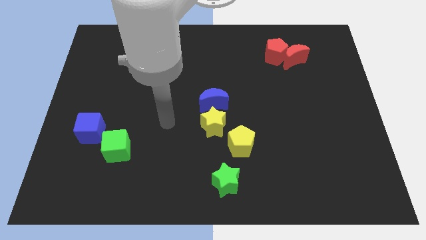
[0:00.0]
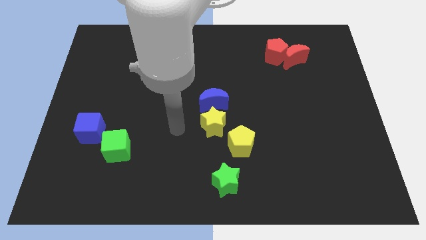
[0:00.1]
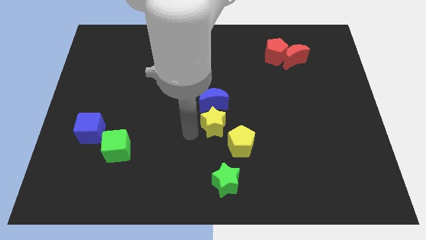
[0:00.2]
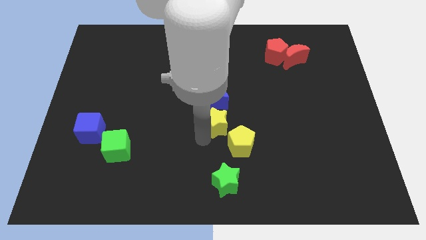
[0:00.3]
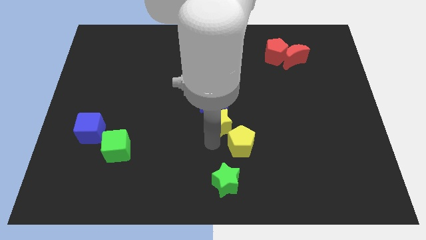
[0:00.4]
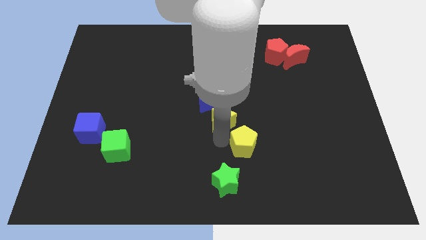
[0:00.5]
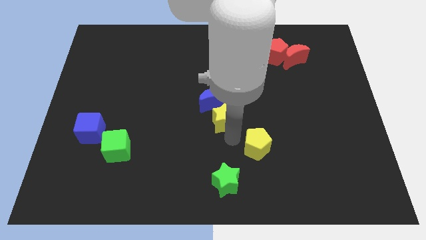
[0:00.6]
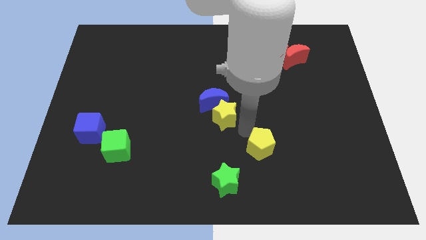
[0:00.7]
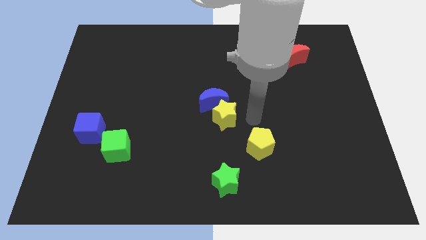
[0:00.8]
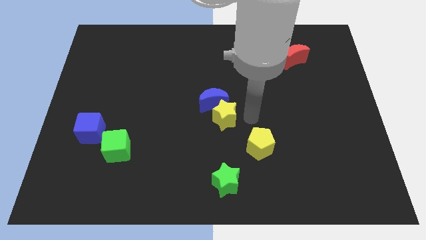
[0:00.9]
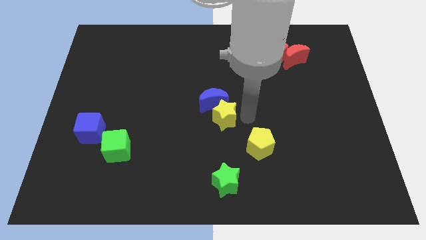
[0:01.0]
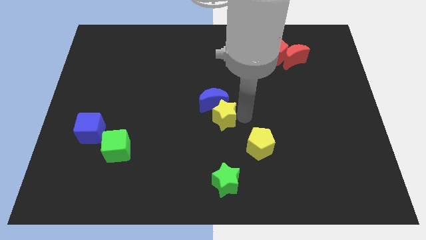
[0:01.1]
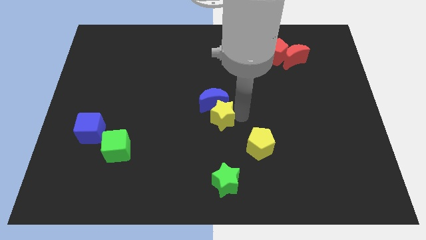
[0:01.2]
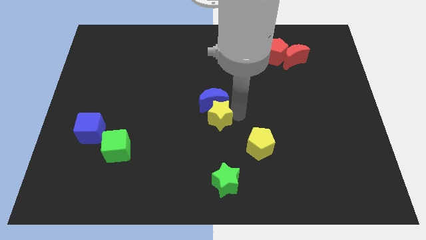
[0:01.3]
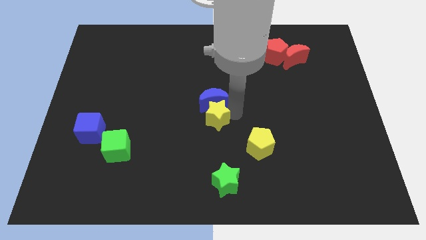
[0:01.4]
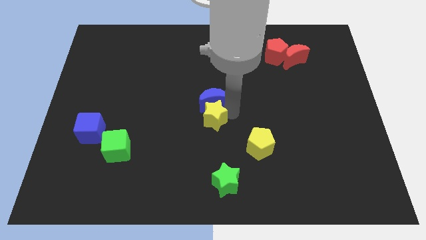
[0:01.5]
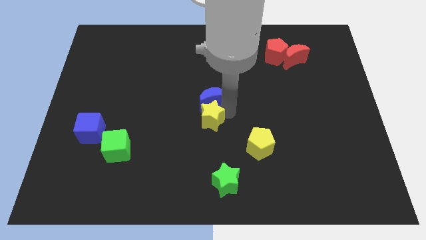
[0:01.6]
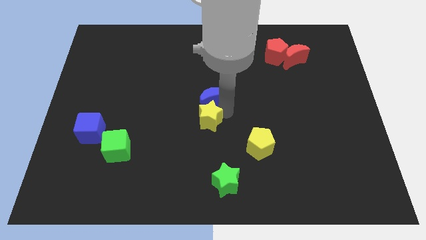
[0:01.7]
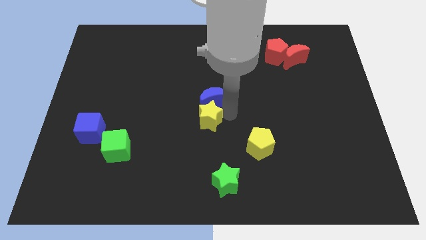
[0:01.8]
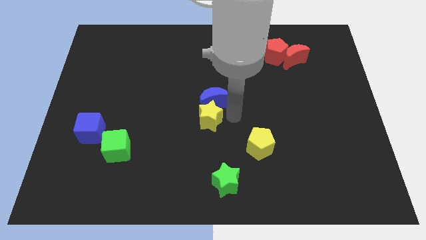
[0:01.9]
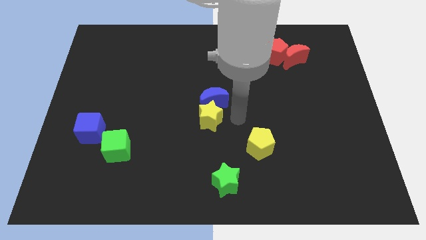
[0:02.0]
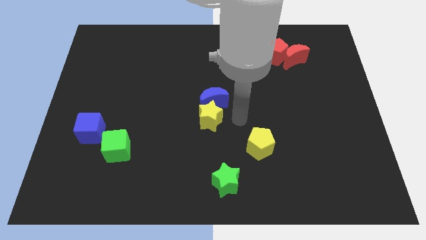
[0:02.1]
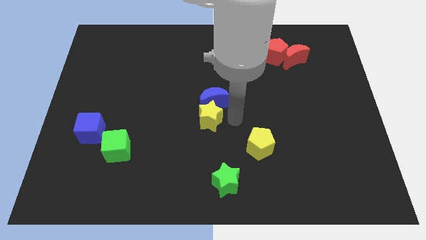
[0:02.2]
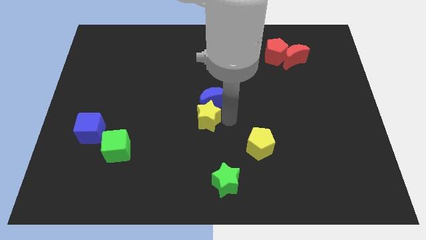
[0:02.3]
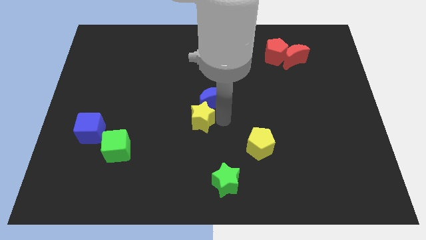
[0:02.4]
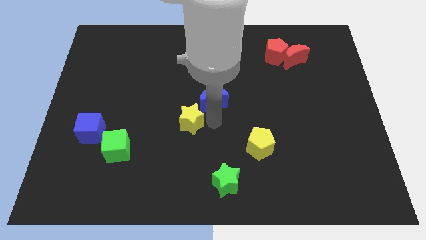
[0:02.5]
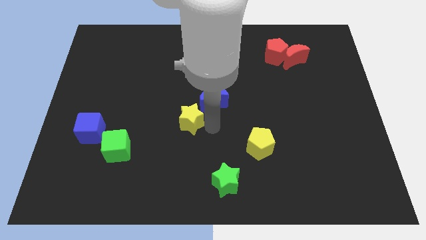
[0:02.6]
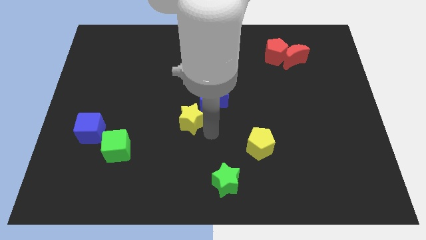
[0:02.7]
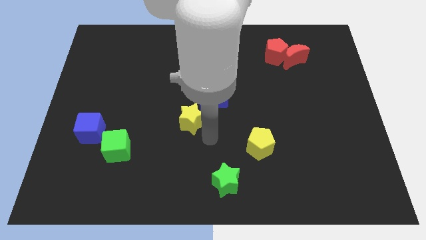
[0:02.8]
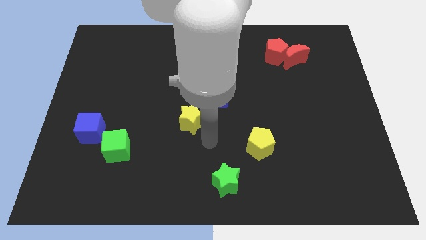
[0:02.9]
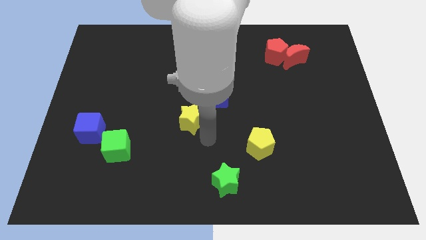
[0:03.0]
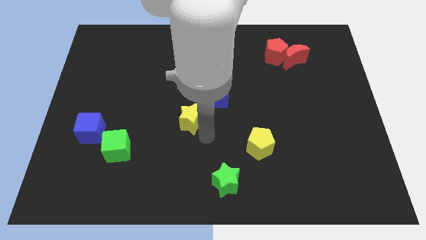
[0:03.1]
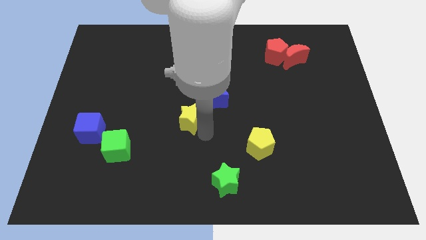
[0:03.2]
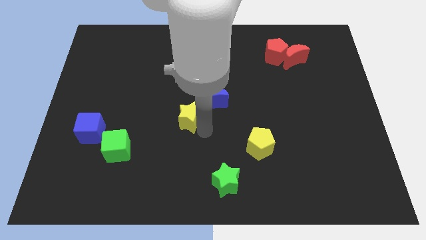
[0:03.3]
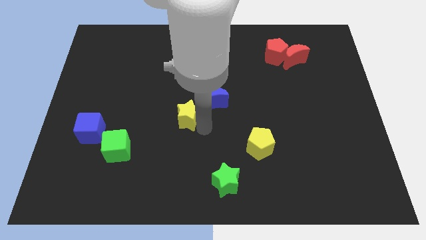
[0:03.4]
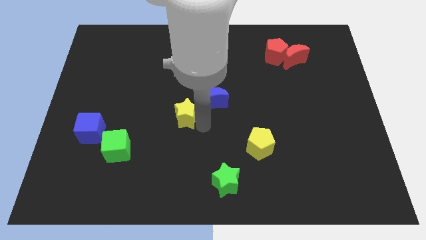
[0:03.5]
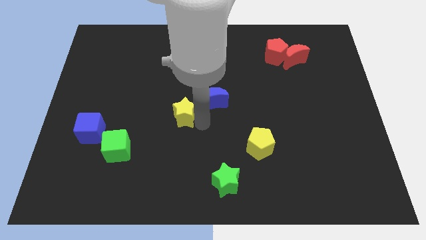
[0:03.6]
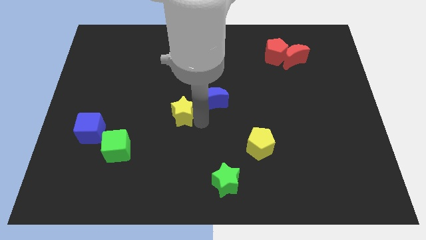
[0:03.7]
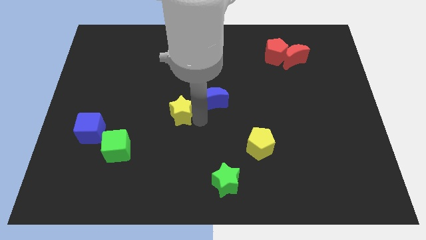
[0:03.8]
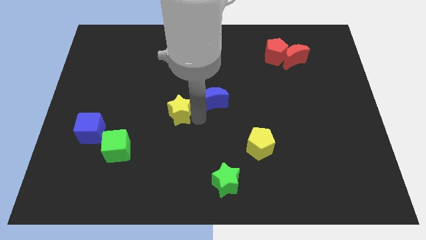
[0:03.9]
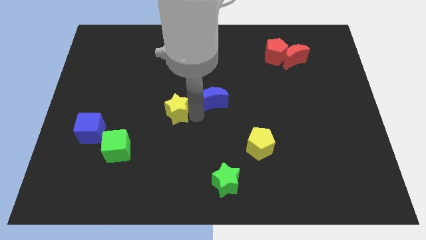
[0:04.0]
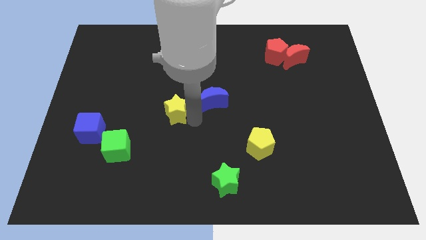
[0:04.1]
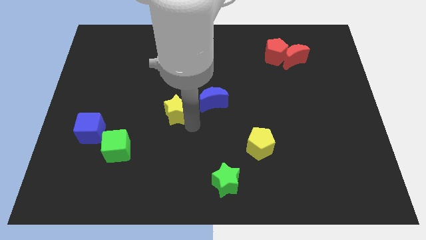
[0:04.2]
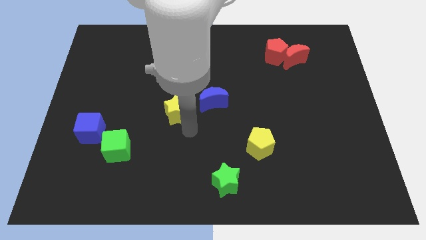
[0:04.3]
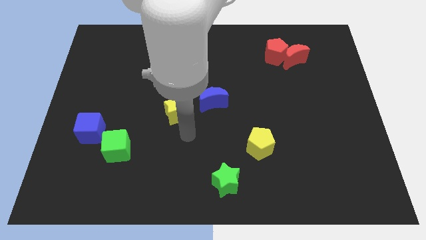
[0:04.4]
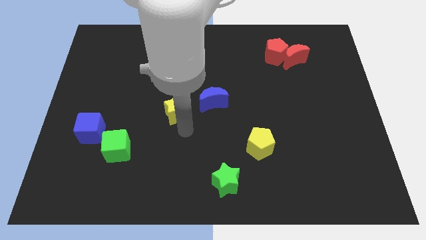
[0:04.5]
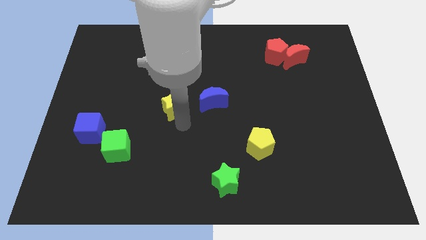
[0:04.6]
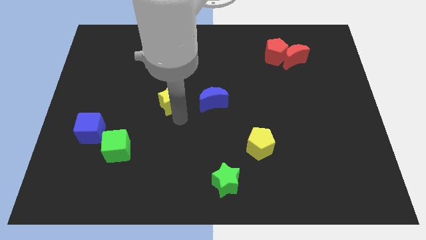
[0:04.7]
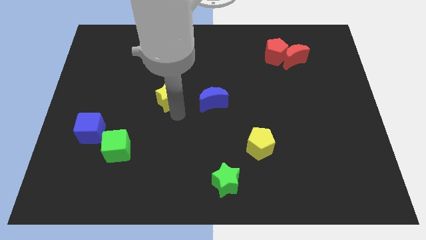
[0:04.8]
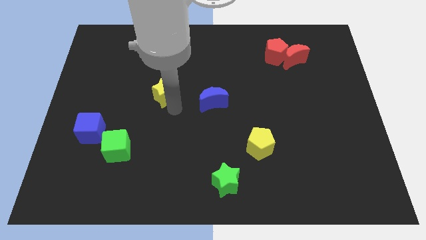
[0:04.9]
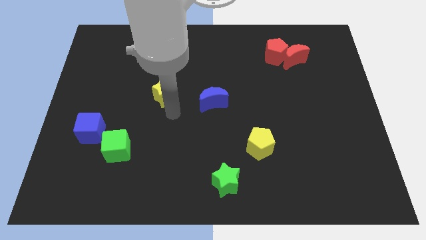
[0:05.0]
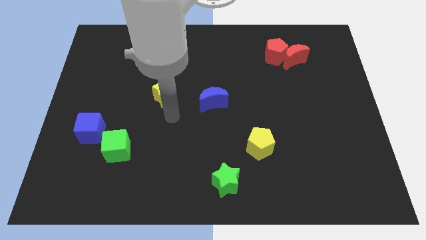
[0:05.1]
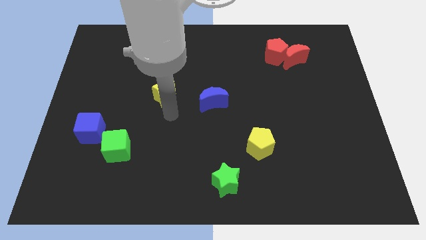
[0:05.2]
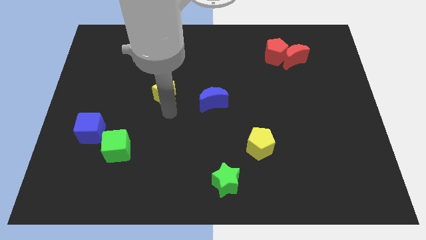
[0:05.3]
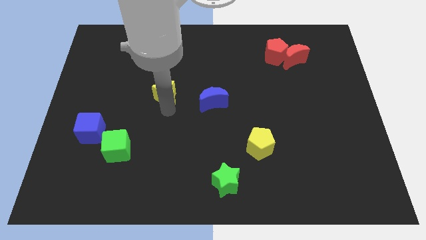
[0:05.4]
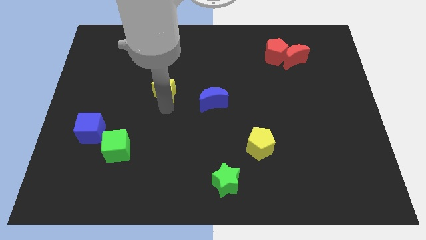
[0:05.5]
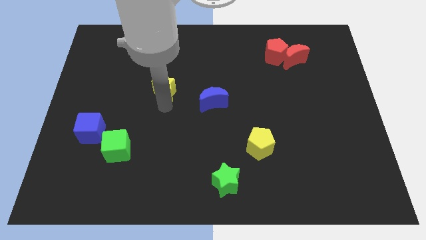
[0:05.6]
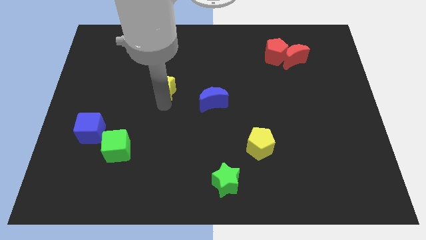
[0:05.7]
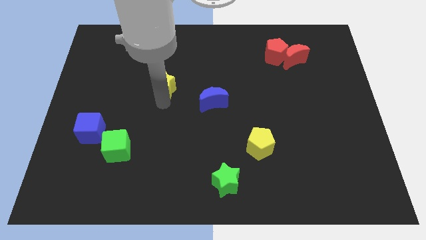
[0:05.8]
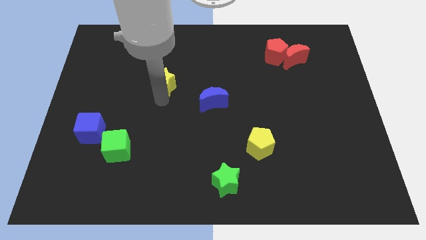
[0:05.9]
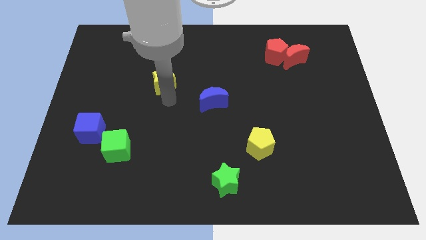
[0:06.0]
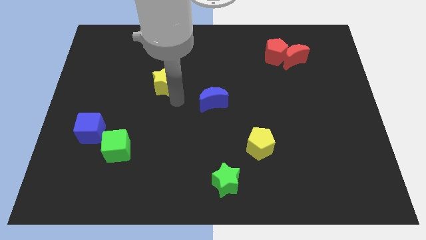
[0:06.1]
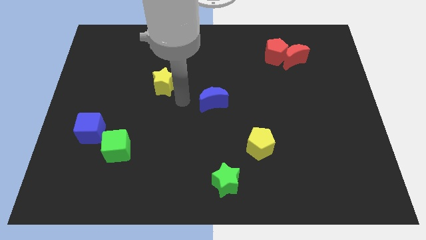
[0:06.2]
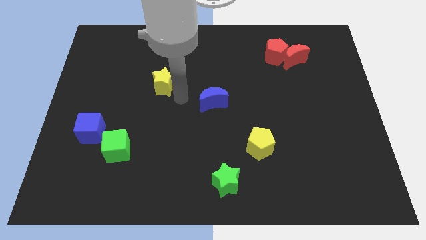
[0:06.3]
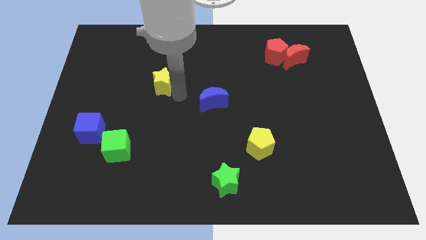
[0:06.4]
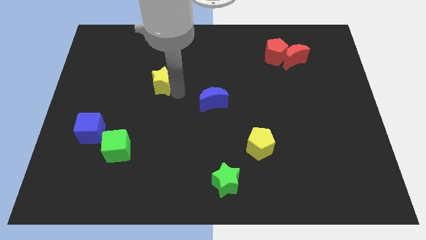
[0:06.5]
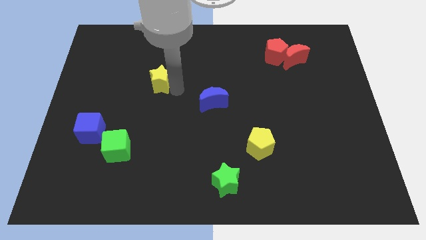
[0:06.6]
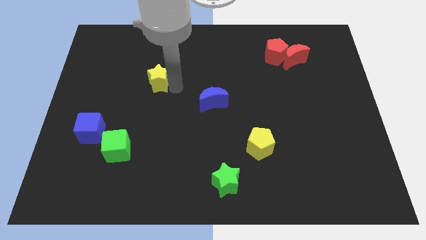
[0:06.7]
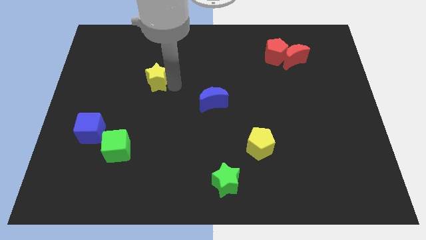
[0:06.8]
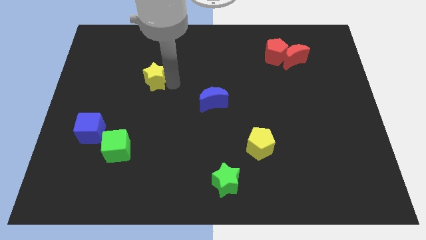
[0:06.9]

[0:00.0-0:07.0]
move the yellow star upwards and to the left

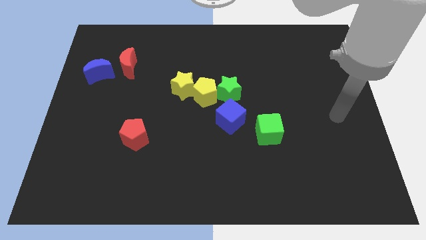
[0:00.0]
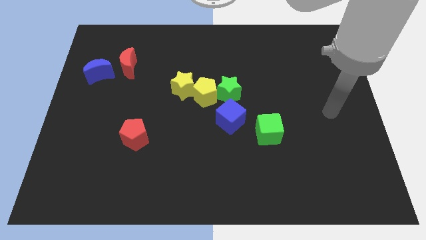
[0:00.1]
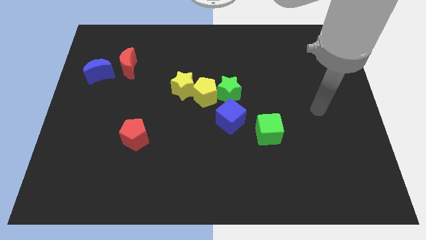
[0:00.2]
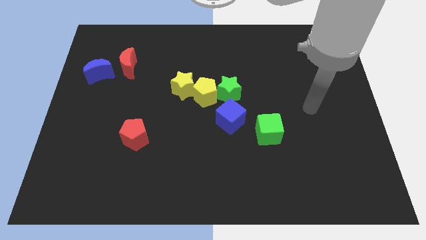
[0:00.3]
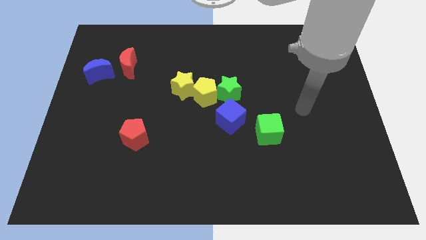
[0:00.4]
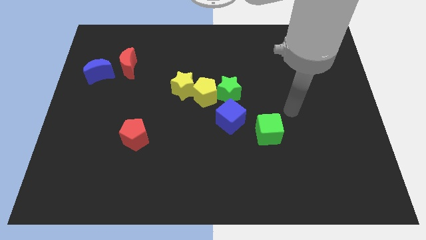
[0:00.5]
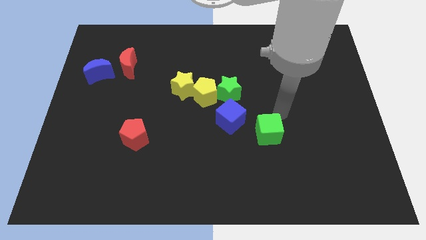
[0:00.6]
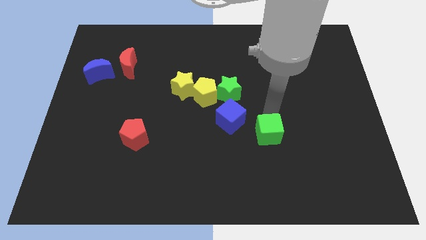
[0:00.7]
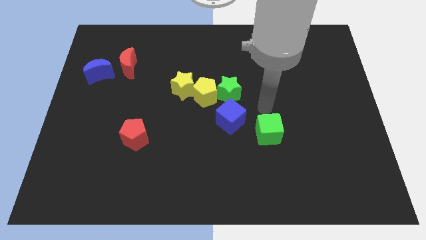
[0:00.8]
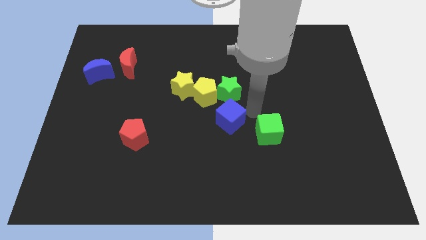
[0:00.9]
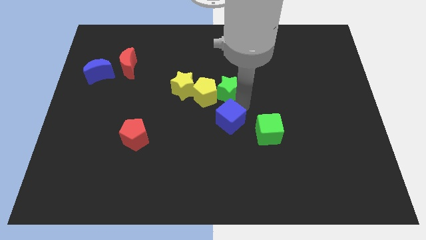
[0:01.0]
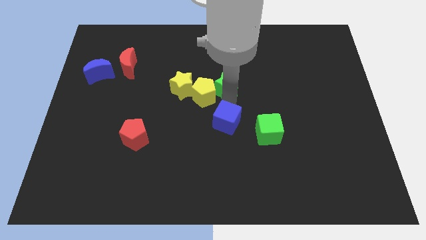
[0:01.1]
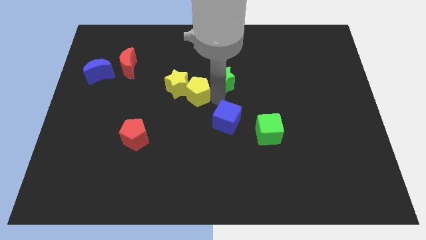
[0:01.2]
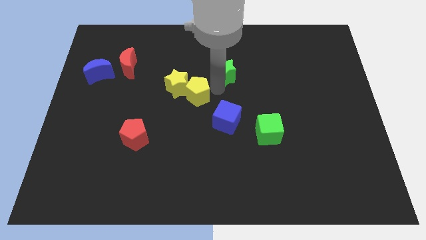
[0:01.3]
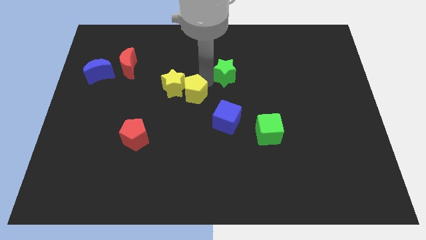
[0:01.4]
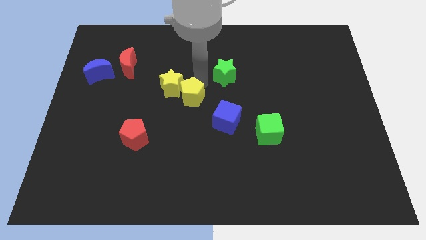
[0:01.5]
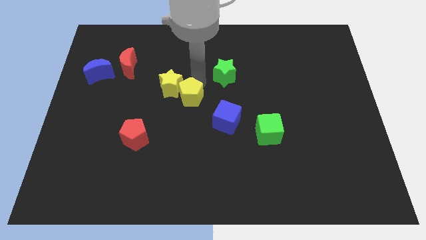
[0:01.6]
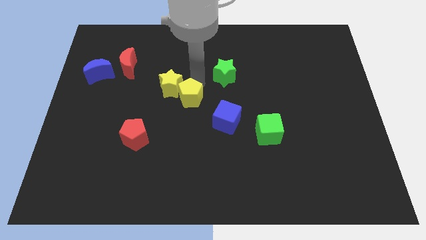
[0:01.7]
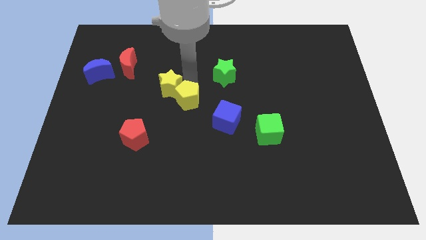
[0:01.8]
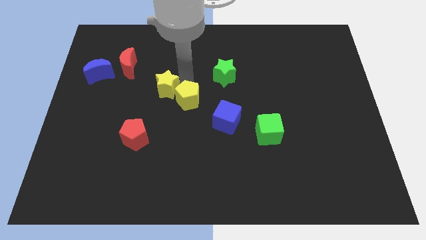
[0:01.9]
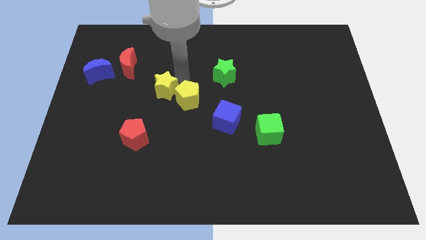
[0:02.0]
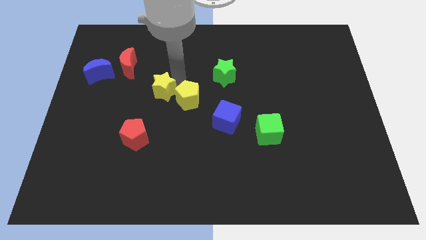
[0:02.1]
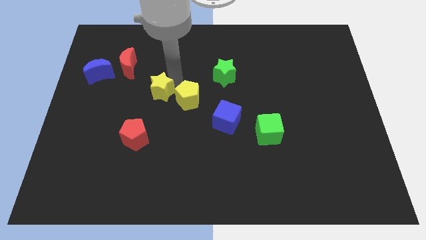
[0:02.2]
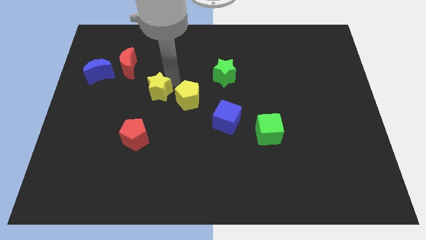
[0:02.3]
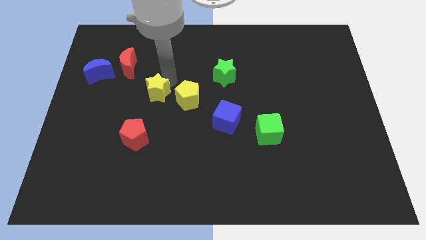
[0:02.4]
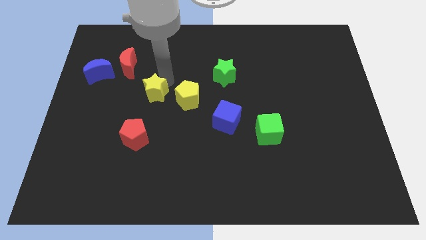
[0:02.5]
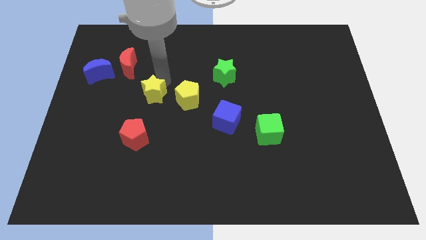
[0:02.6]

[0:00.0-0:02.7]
slide the yellow star a little bit left
